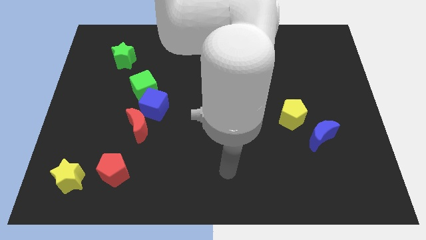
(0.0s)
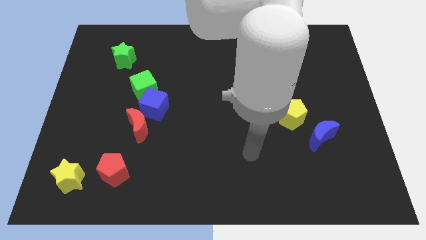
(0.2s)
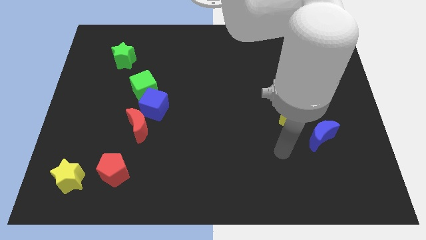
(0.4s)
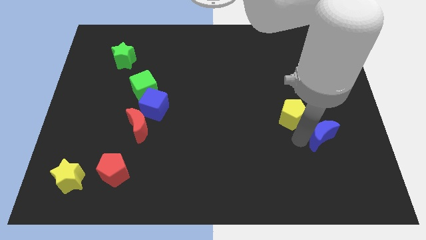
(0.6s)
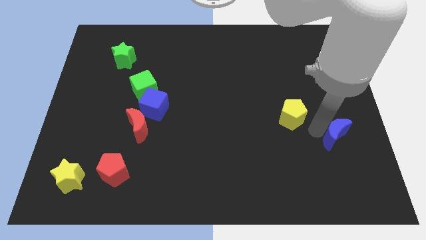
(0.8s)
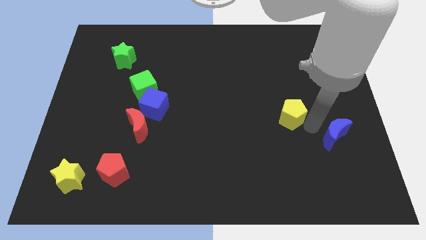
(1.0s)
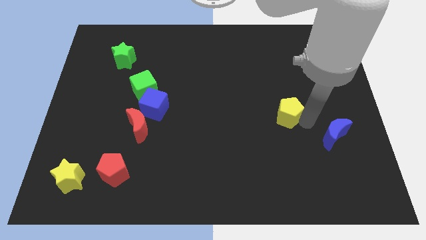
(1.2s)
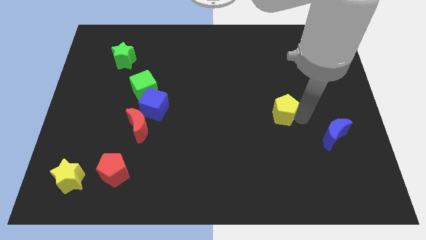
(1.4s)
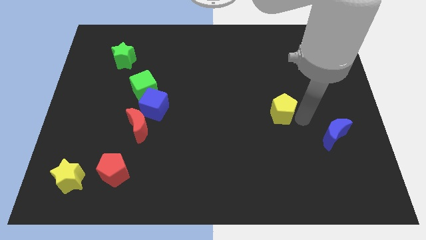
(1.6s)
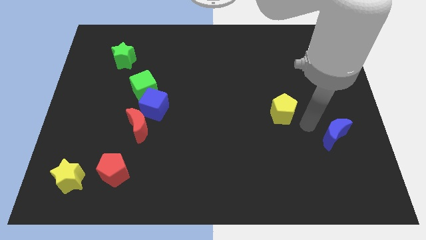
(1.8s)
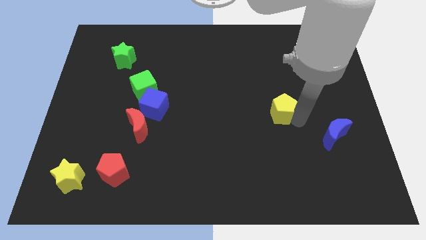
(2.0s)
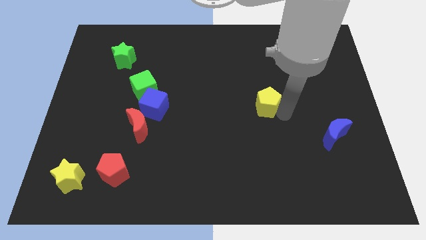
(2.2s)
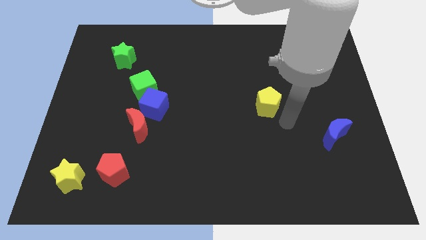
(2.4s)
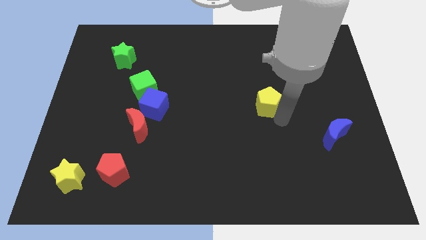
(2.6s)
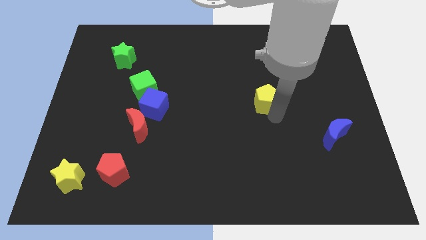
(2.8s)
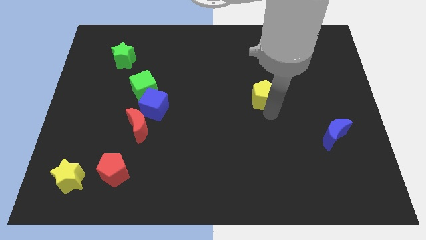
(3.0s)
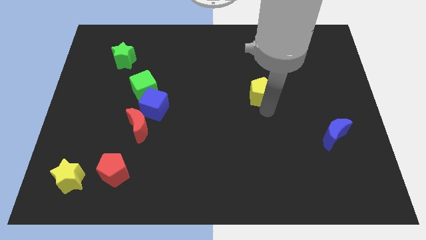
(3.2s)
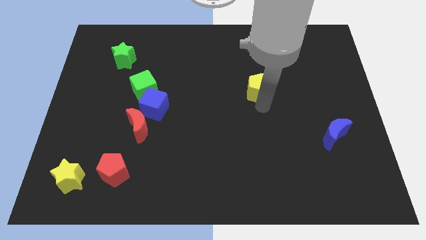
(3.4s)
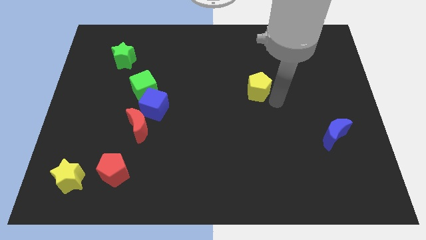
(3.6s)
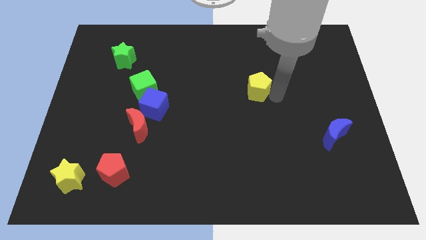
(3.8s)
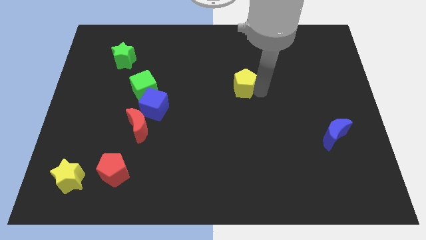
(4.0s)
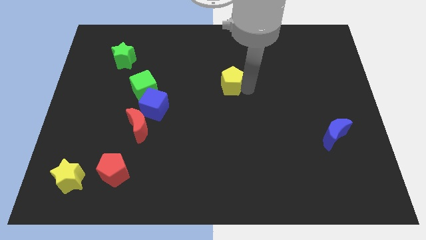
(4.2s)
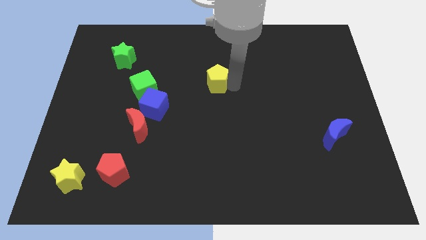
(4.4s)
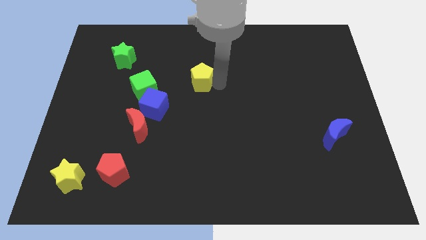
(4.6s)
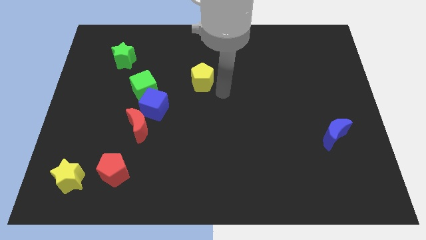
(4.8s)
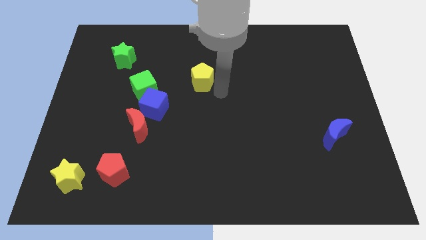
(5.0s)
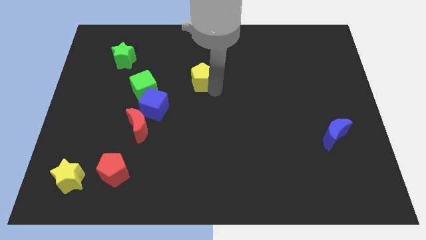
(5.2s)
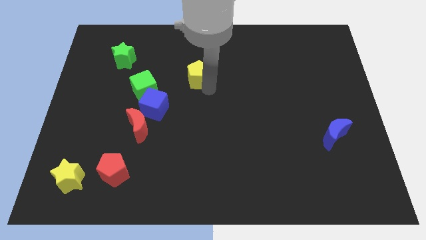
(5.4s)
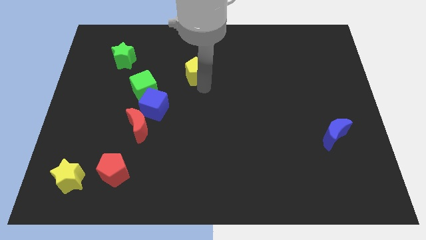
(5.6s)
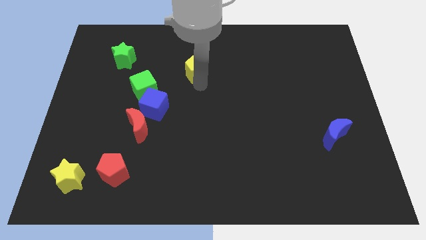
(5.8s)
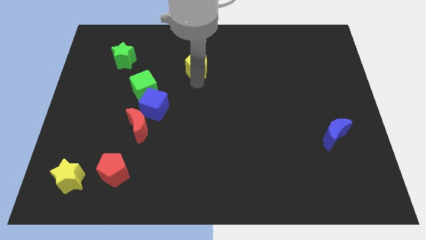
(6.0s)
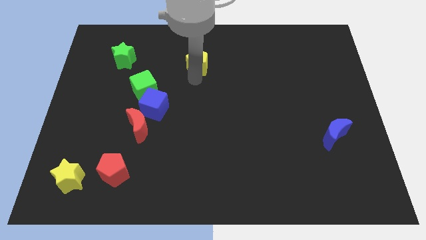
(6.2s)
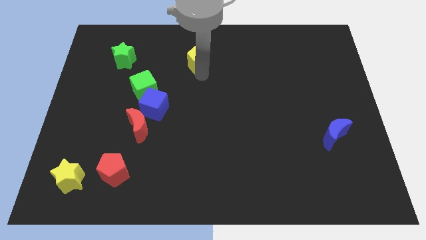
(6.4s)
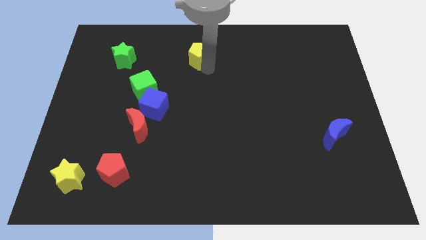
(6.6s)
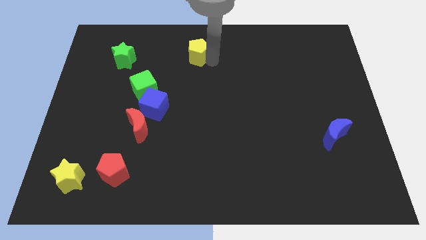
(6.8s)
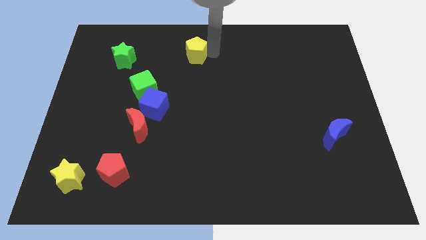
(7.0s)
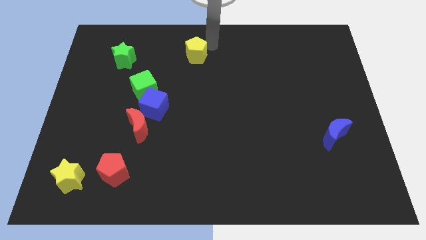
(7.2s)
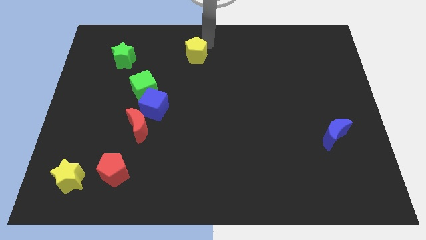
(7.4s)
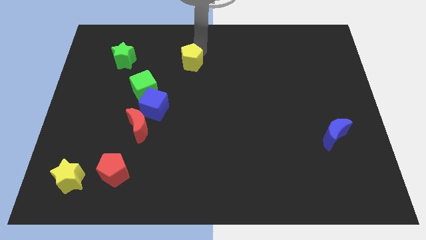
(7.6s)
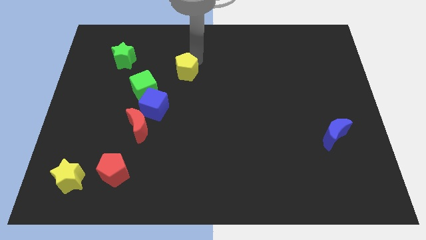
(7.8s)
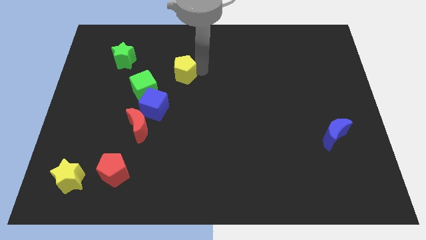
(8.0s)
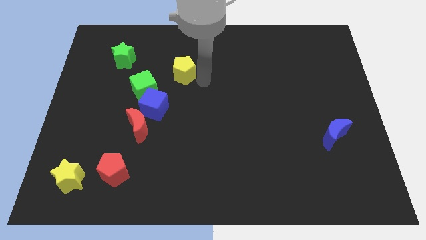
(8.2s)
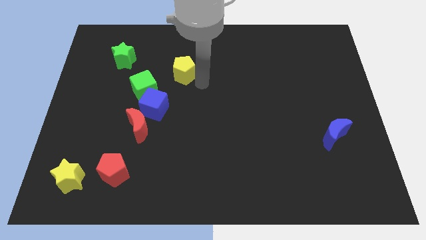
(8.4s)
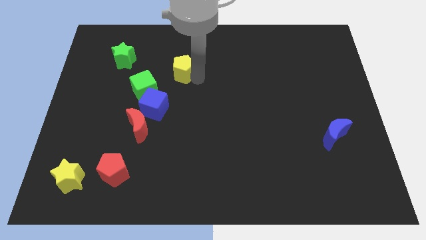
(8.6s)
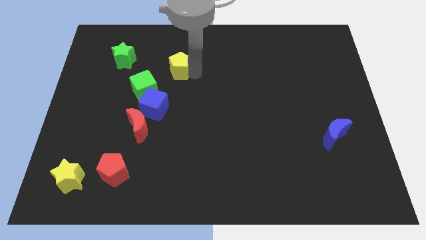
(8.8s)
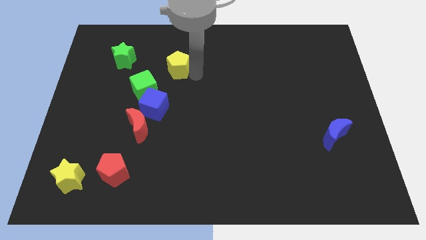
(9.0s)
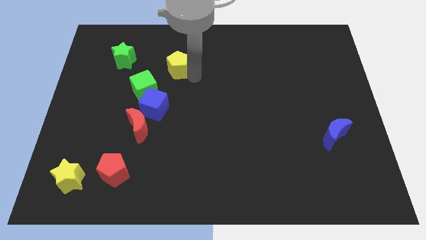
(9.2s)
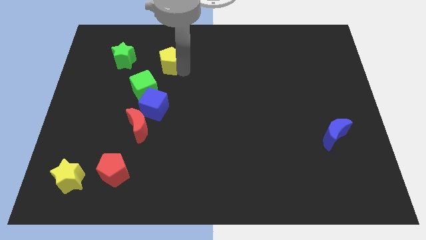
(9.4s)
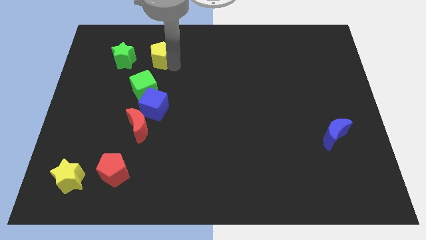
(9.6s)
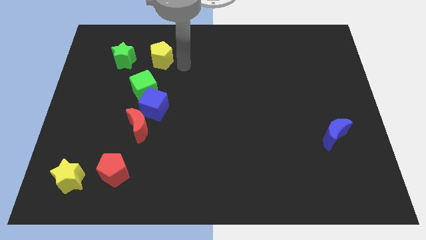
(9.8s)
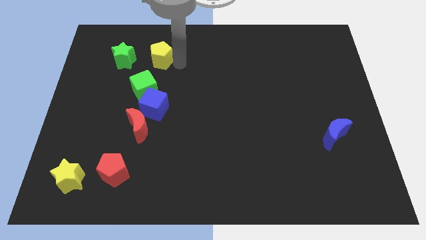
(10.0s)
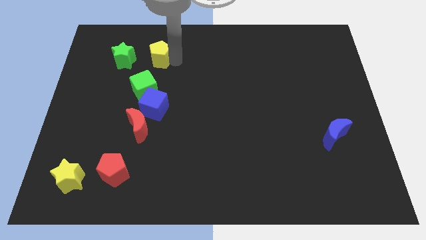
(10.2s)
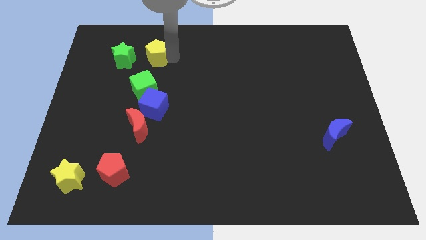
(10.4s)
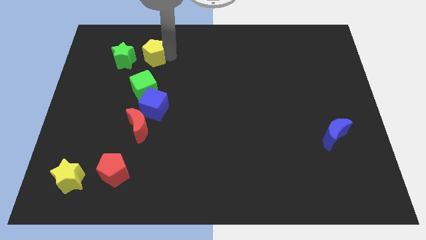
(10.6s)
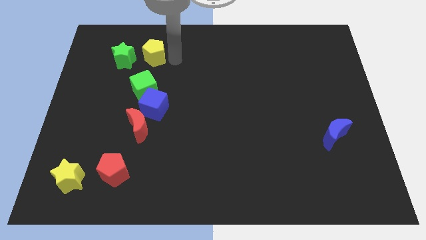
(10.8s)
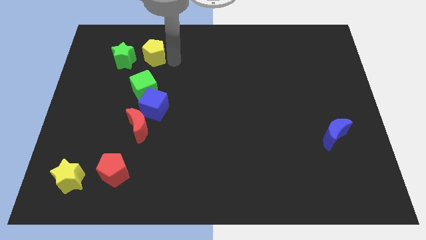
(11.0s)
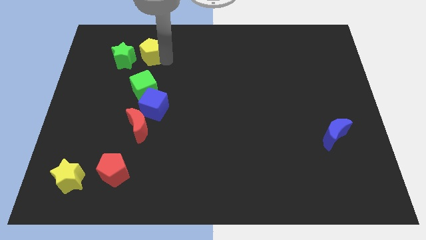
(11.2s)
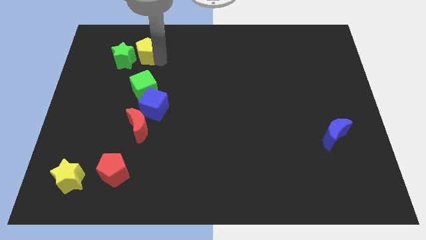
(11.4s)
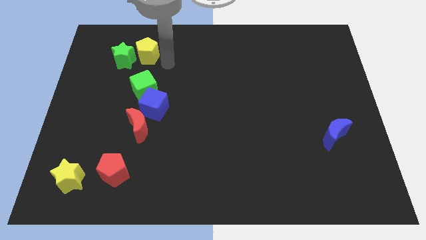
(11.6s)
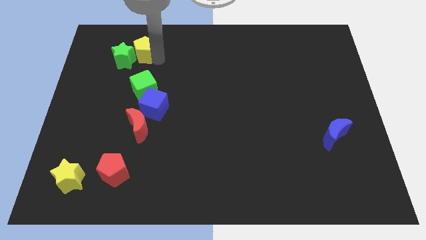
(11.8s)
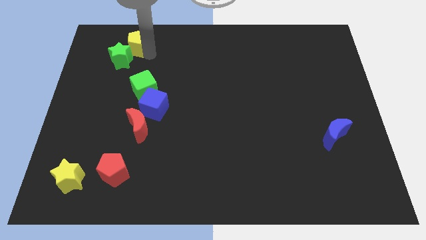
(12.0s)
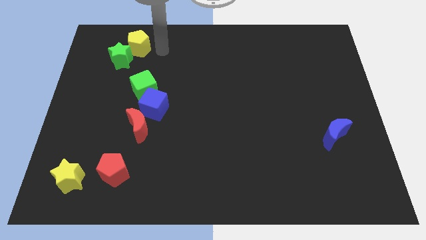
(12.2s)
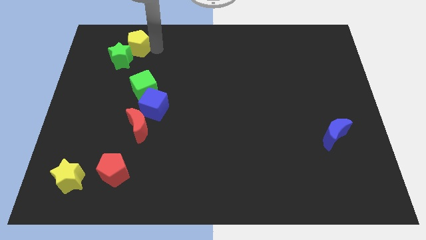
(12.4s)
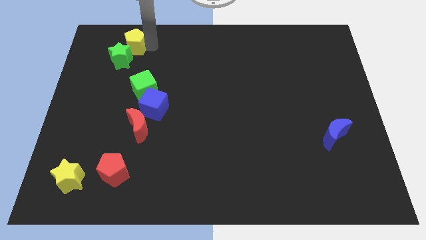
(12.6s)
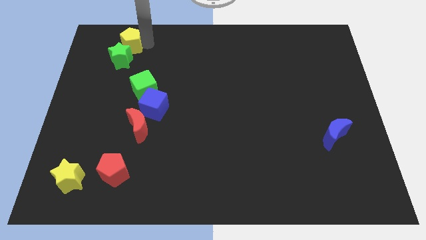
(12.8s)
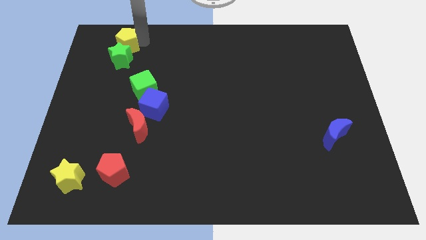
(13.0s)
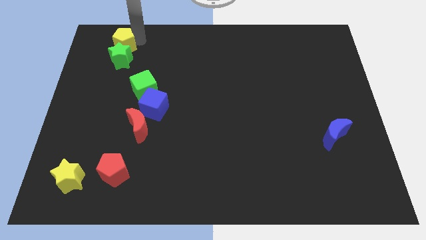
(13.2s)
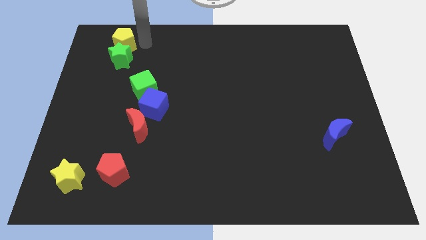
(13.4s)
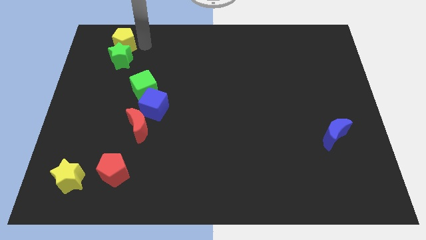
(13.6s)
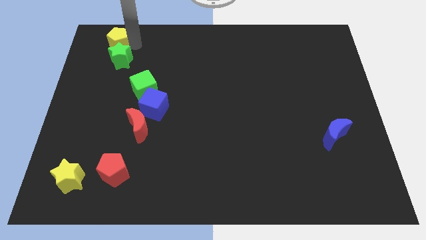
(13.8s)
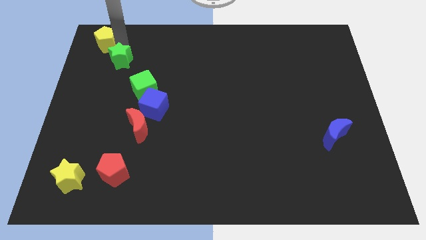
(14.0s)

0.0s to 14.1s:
slide the yellow pentagon to the top left
